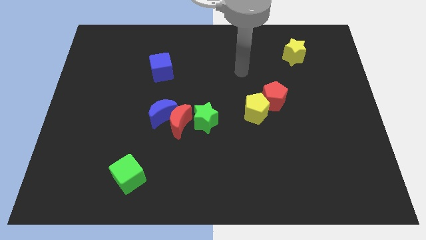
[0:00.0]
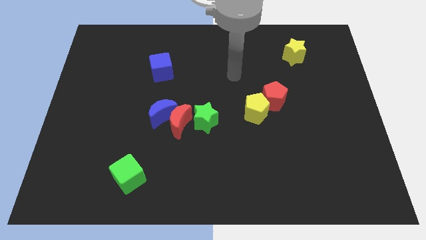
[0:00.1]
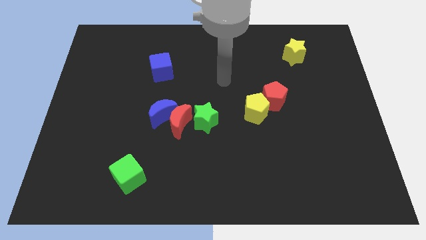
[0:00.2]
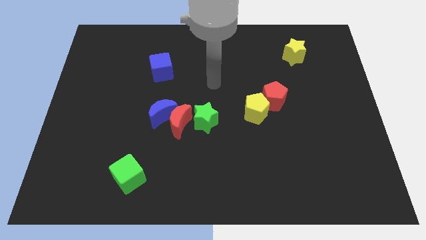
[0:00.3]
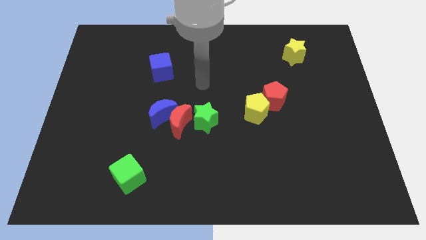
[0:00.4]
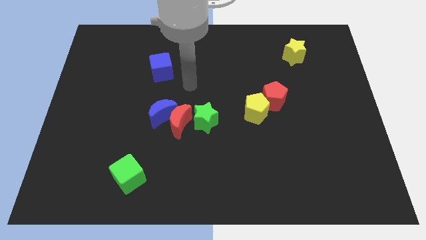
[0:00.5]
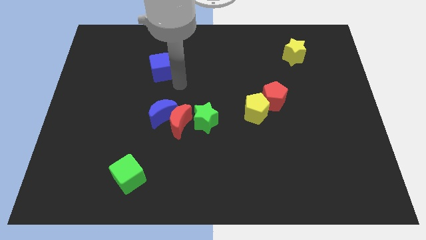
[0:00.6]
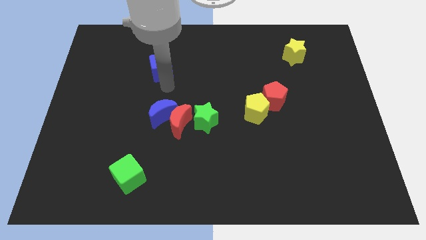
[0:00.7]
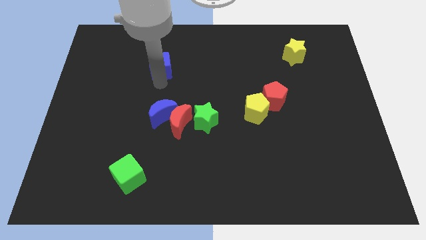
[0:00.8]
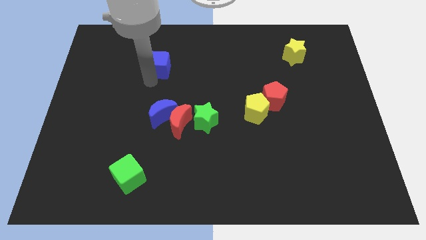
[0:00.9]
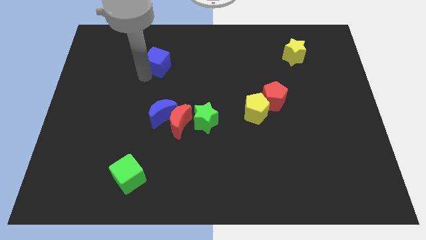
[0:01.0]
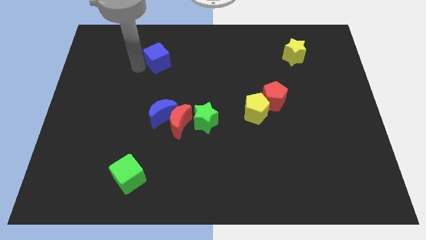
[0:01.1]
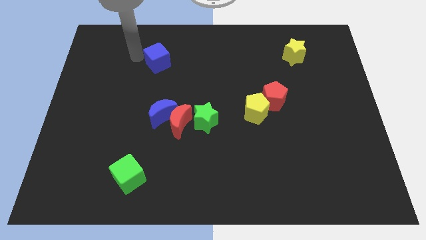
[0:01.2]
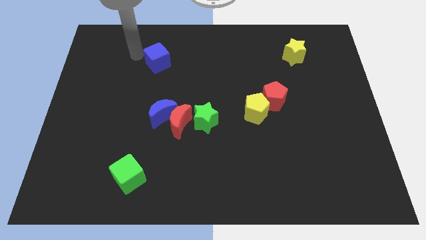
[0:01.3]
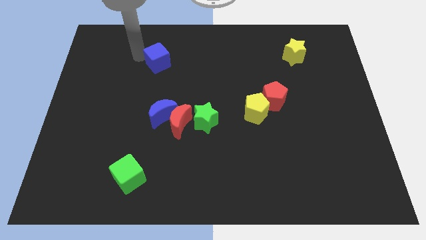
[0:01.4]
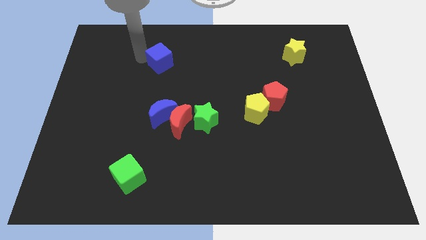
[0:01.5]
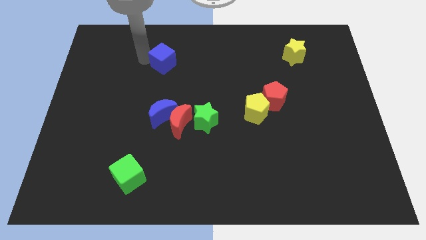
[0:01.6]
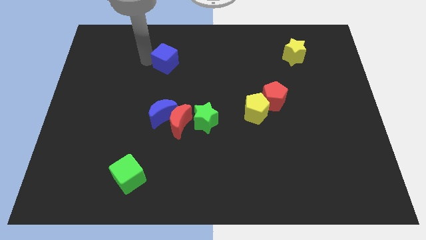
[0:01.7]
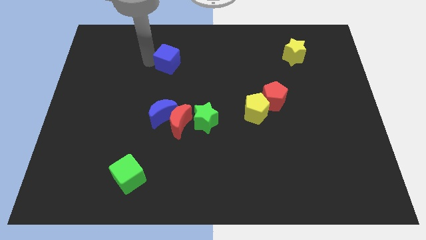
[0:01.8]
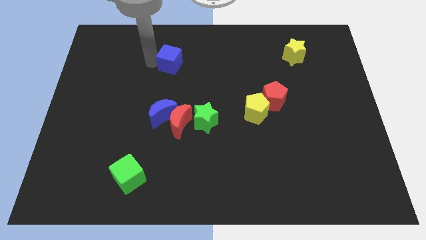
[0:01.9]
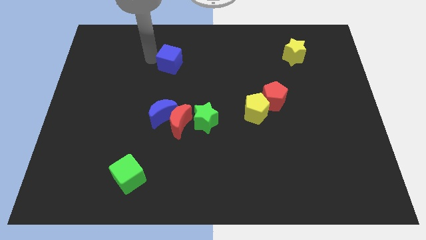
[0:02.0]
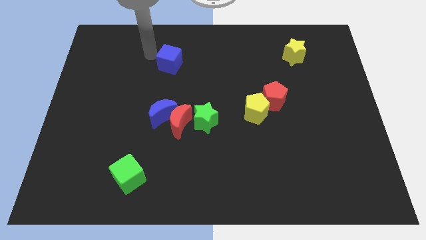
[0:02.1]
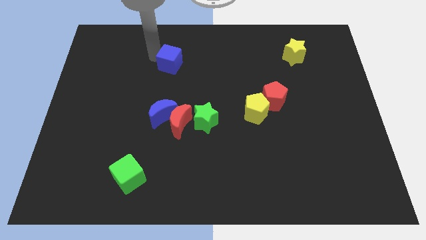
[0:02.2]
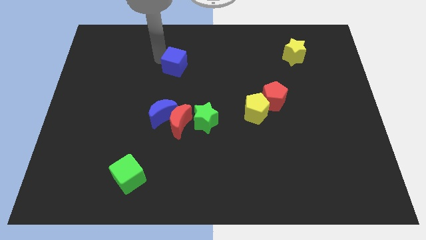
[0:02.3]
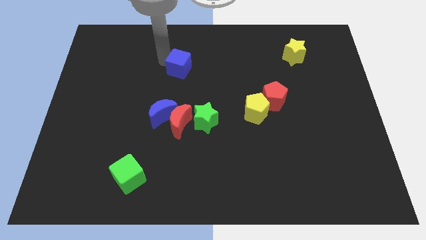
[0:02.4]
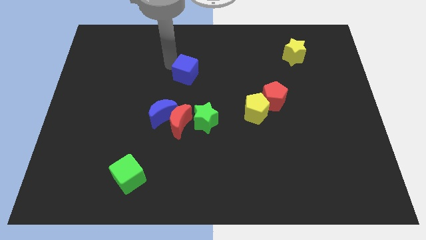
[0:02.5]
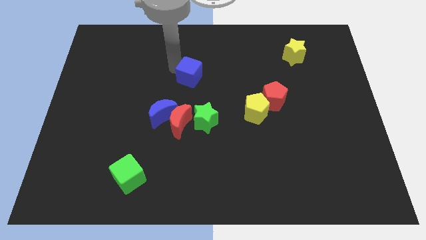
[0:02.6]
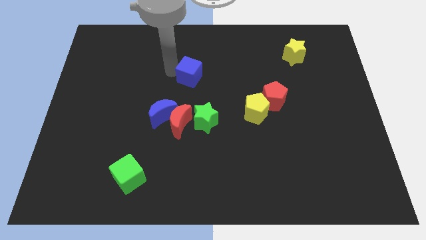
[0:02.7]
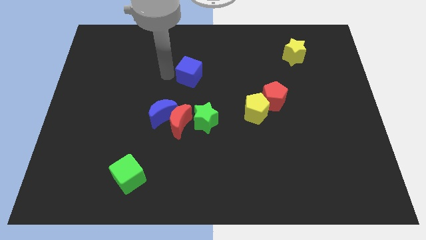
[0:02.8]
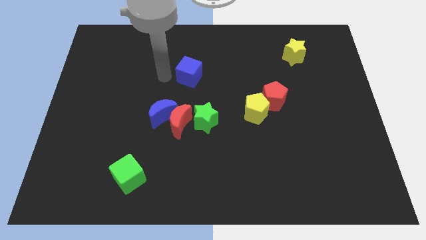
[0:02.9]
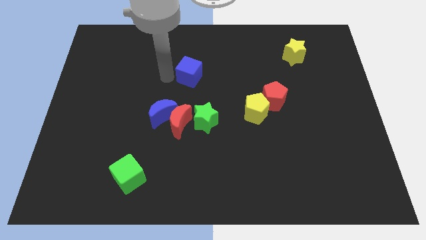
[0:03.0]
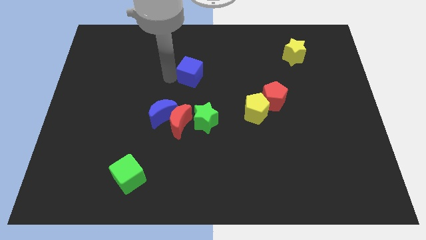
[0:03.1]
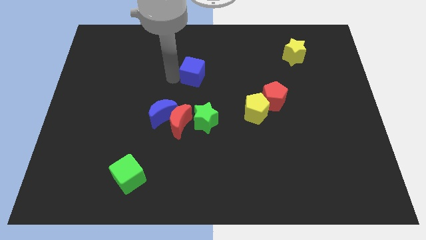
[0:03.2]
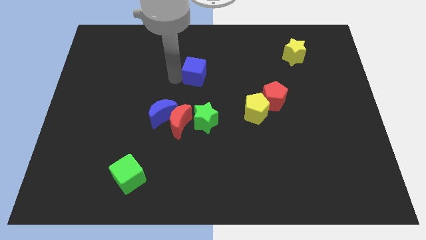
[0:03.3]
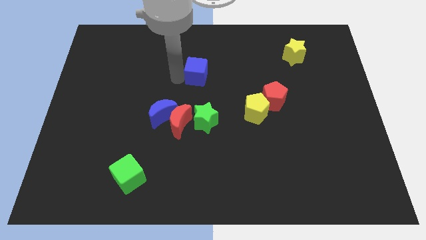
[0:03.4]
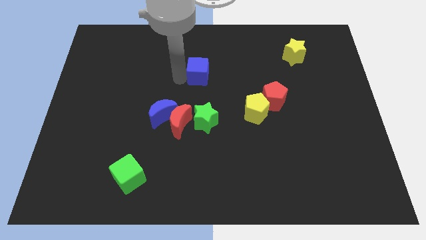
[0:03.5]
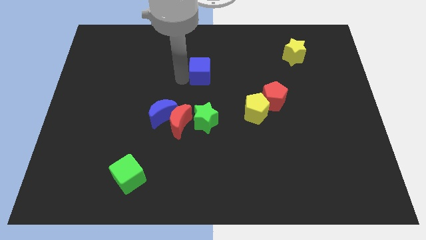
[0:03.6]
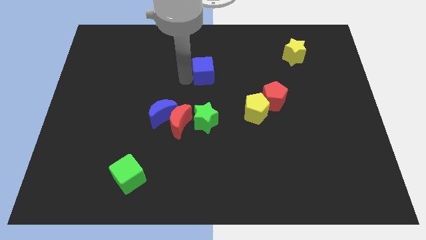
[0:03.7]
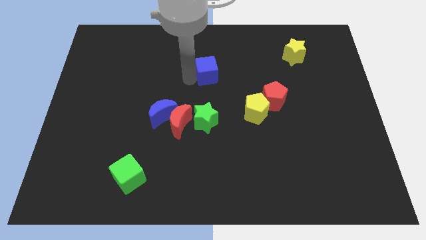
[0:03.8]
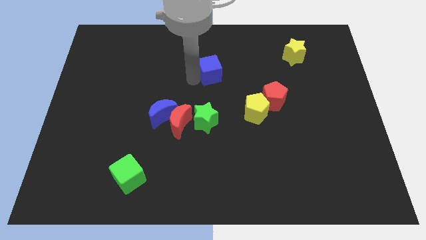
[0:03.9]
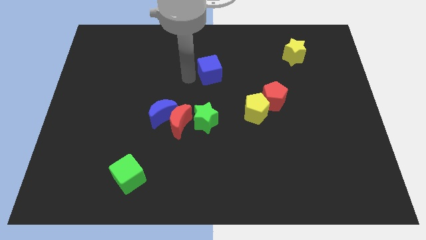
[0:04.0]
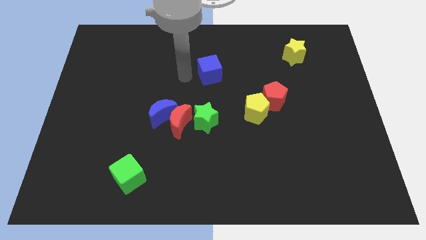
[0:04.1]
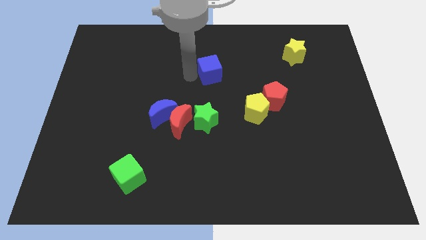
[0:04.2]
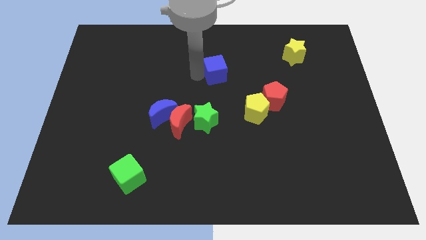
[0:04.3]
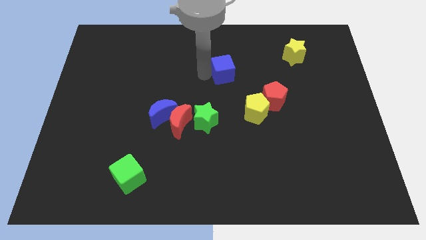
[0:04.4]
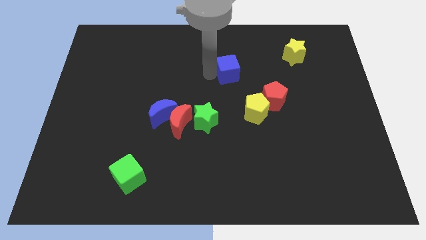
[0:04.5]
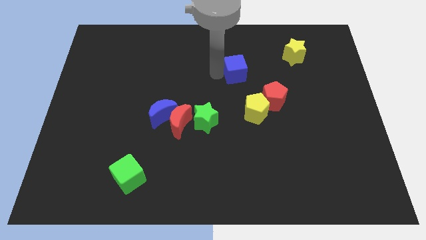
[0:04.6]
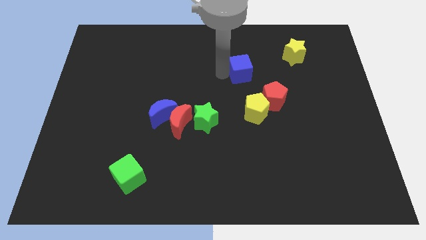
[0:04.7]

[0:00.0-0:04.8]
move the blue cube to the right

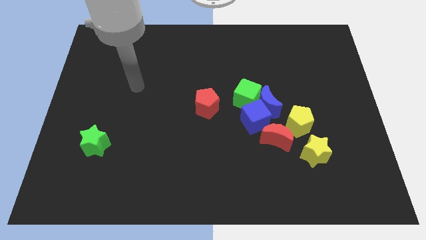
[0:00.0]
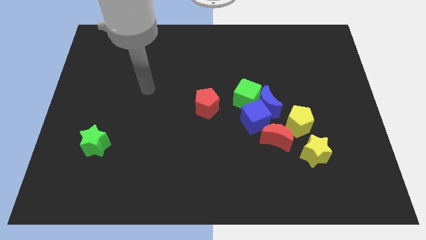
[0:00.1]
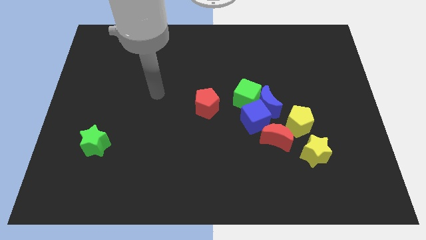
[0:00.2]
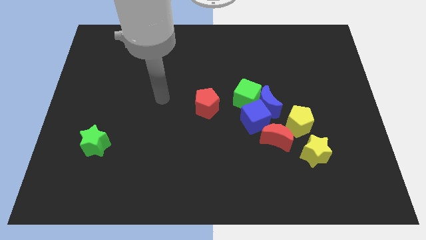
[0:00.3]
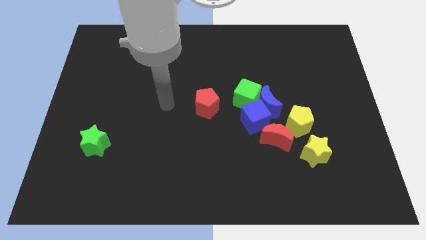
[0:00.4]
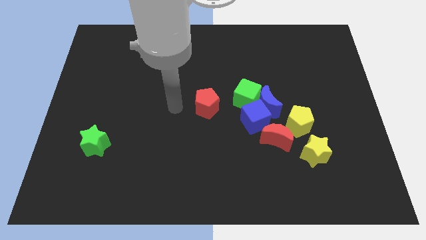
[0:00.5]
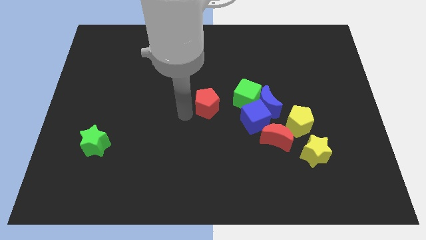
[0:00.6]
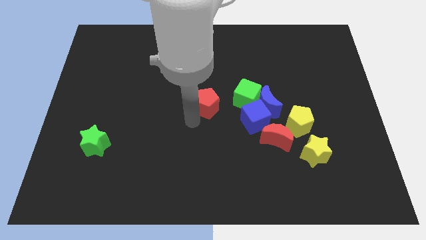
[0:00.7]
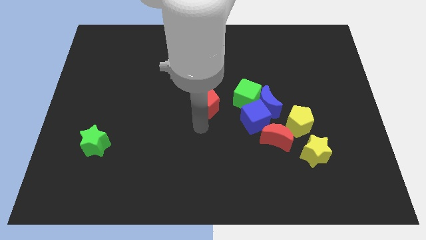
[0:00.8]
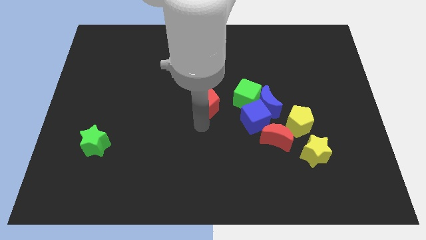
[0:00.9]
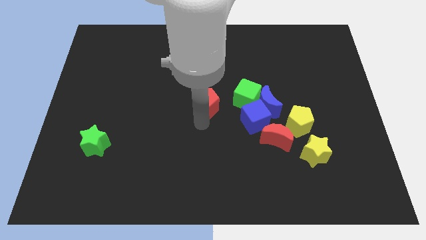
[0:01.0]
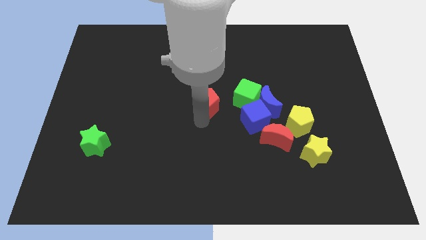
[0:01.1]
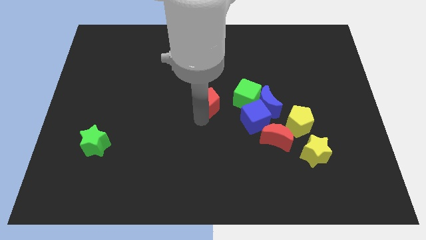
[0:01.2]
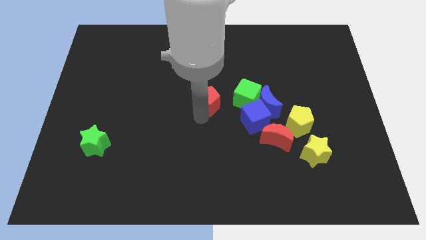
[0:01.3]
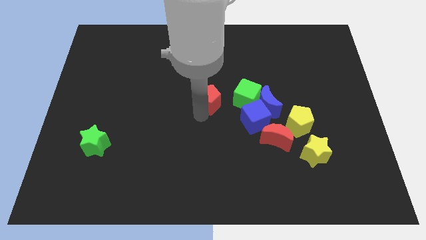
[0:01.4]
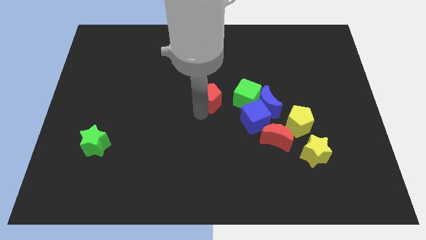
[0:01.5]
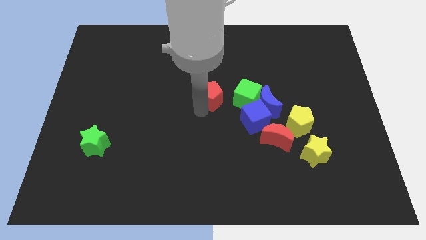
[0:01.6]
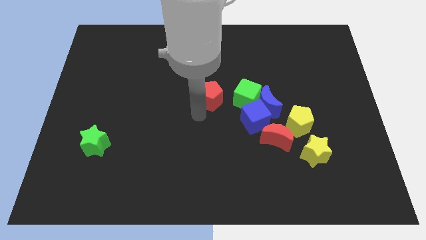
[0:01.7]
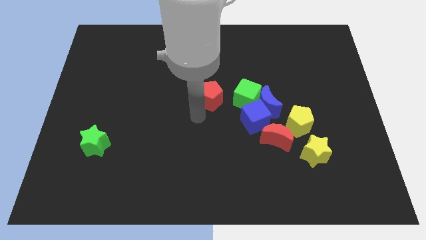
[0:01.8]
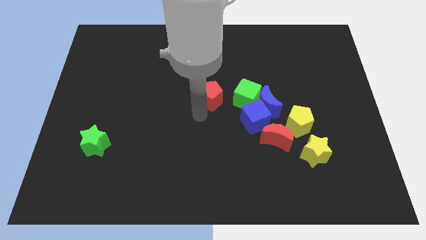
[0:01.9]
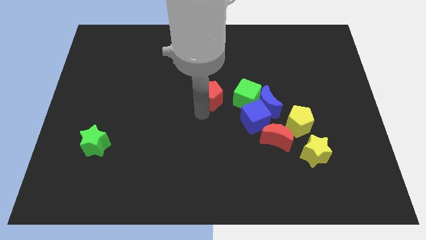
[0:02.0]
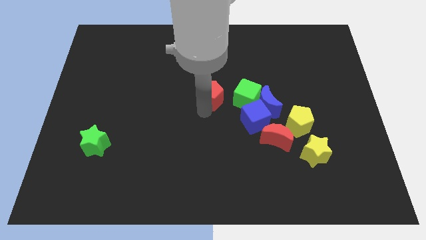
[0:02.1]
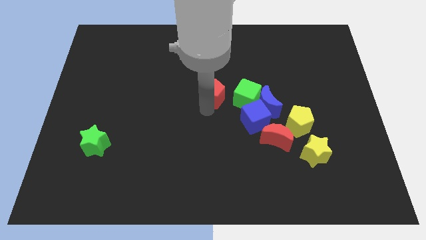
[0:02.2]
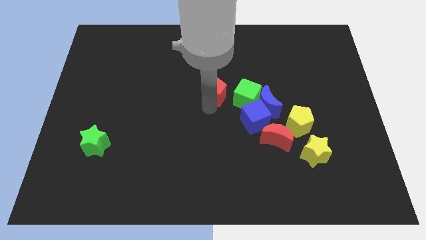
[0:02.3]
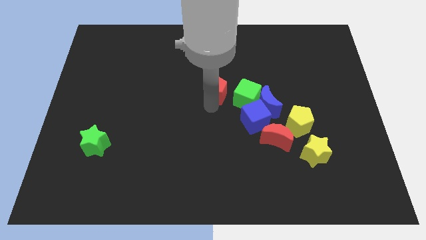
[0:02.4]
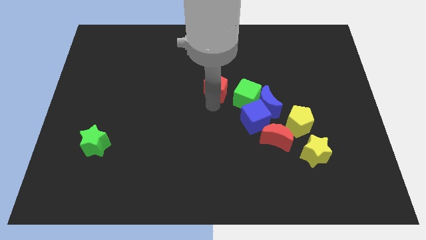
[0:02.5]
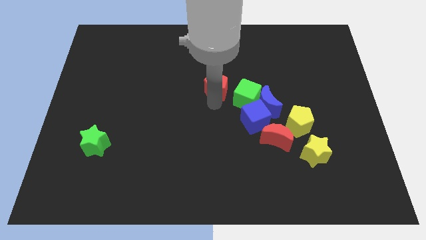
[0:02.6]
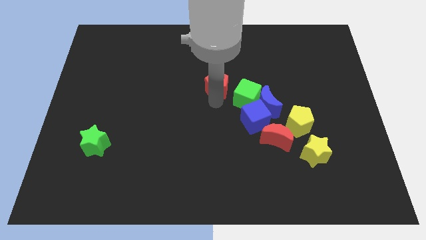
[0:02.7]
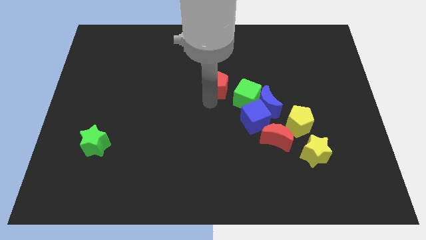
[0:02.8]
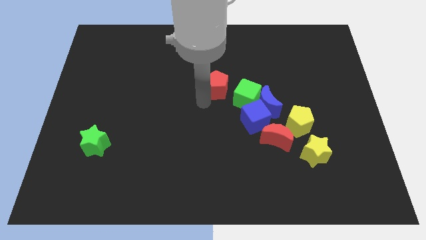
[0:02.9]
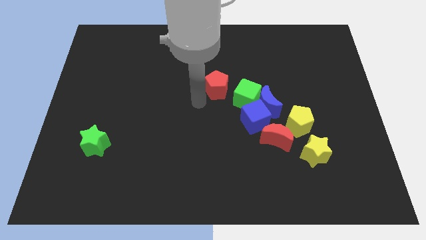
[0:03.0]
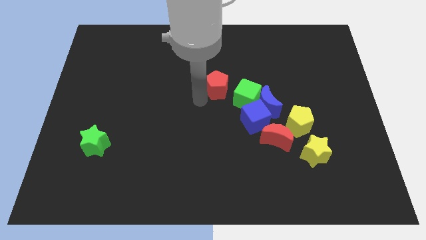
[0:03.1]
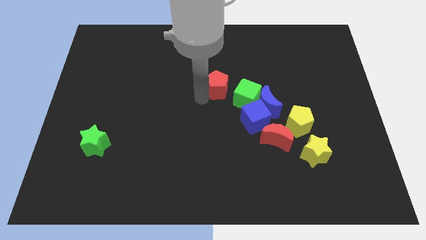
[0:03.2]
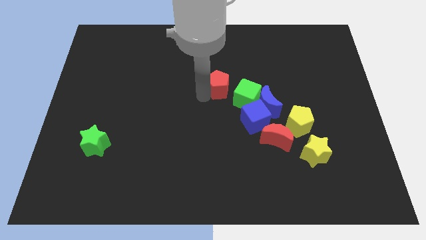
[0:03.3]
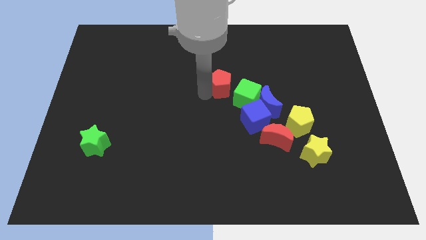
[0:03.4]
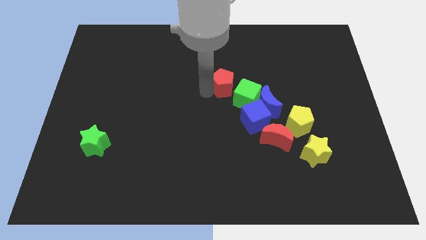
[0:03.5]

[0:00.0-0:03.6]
move the red pentagon a little bit diagonally upwards and right
